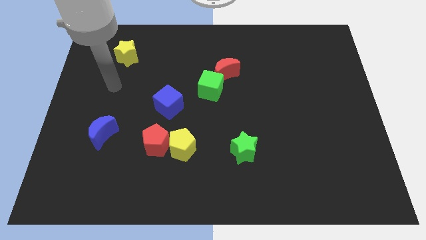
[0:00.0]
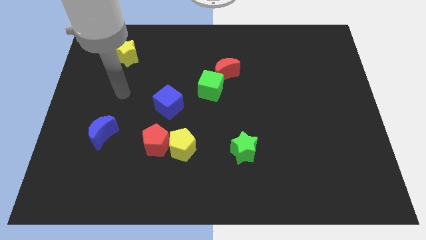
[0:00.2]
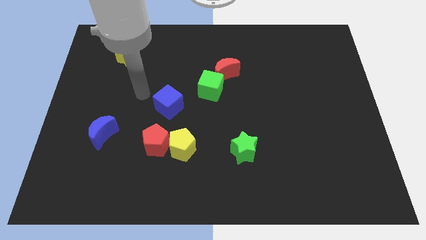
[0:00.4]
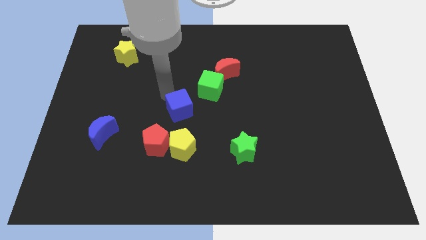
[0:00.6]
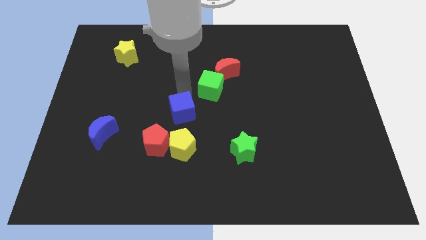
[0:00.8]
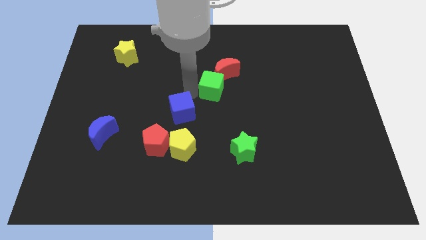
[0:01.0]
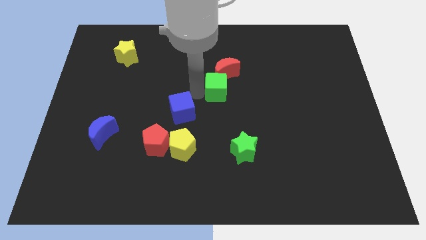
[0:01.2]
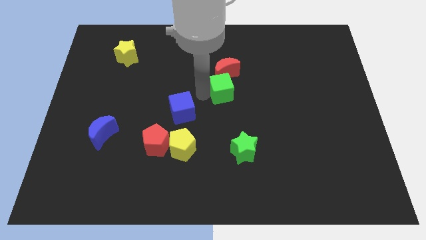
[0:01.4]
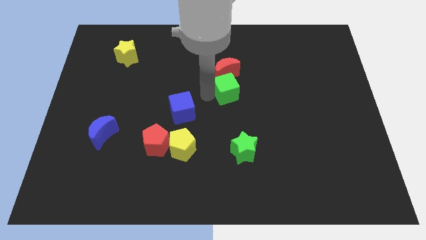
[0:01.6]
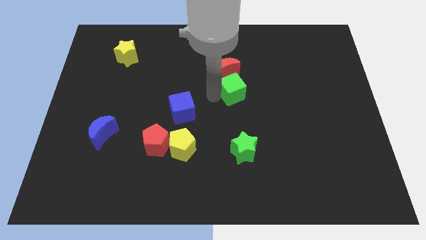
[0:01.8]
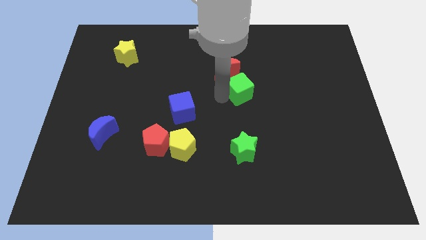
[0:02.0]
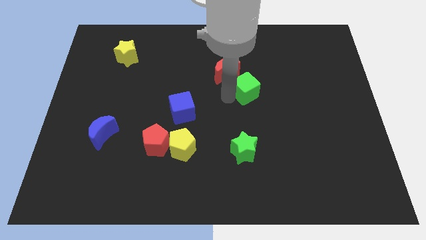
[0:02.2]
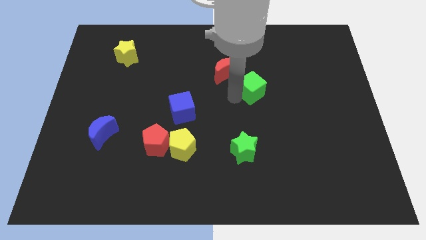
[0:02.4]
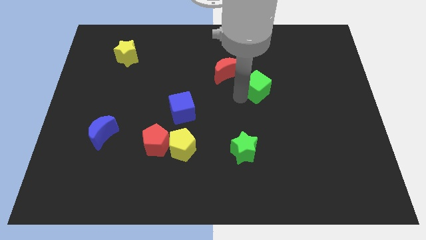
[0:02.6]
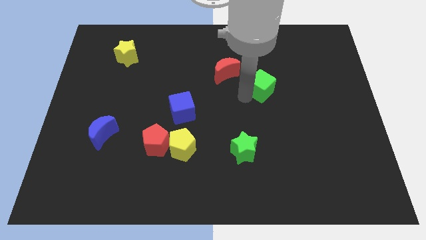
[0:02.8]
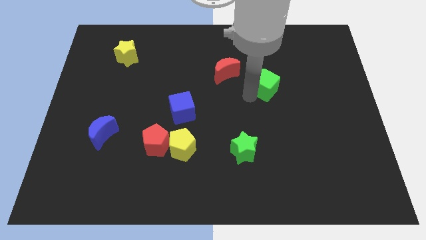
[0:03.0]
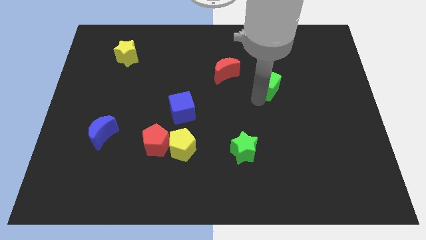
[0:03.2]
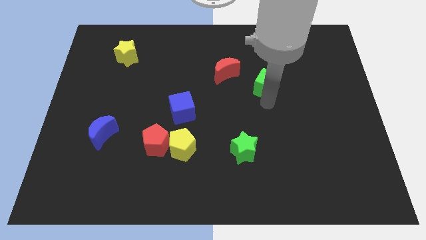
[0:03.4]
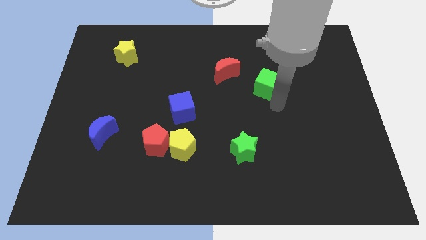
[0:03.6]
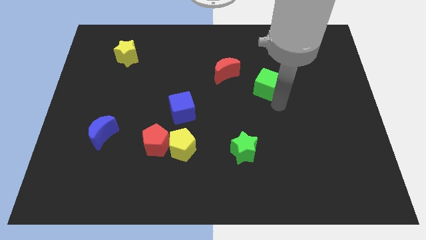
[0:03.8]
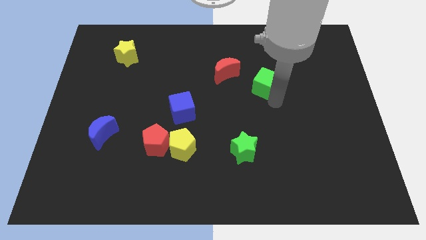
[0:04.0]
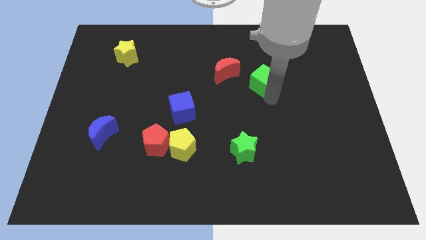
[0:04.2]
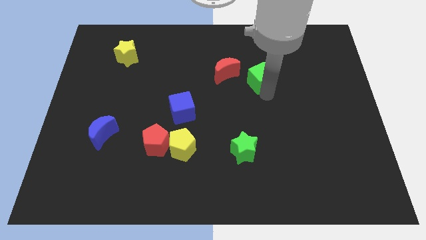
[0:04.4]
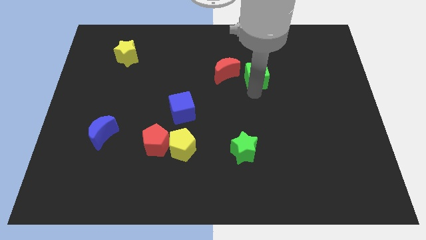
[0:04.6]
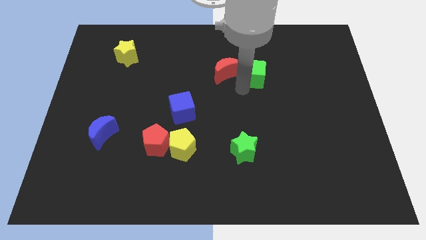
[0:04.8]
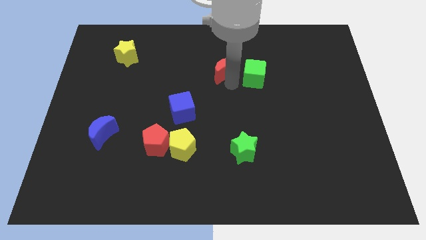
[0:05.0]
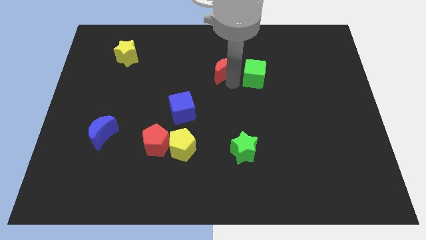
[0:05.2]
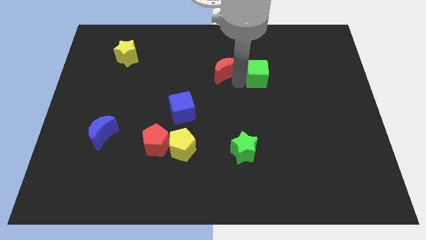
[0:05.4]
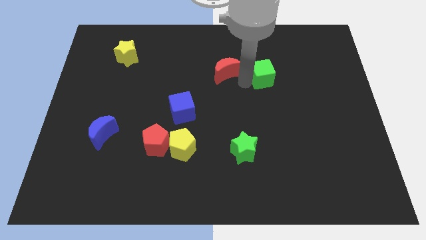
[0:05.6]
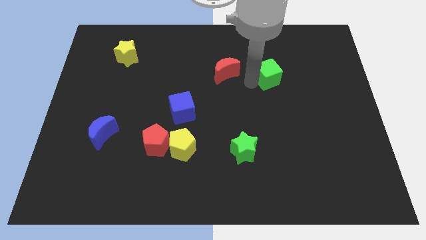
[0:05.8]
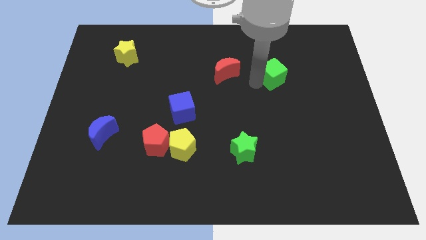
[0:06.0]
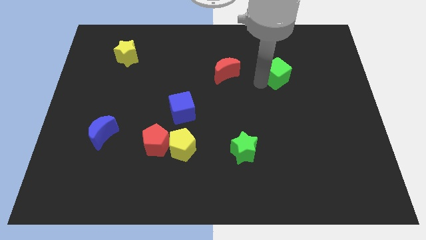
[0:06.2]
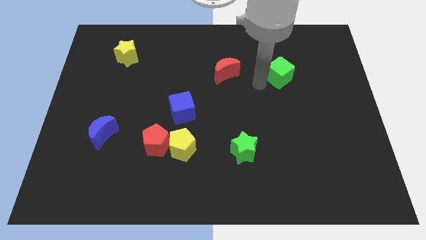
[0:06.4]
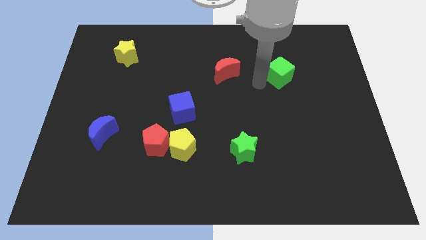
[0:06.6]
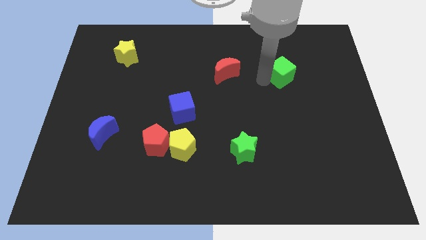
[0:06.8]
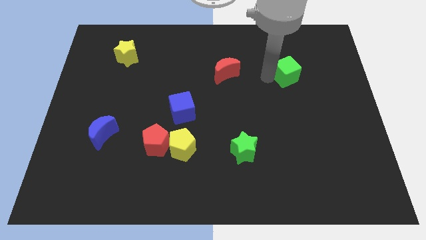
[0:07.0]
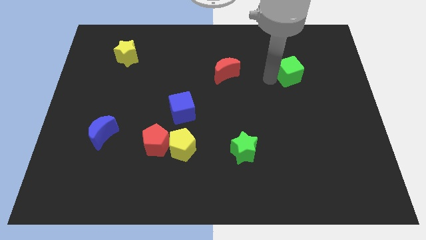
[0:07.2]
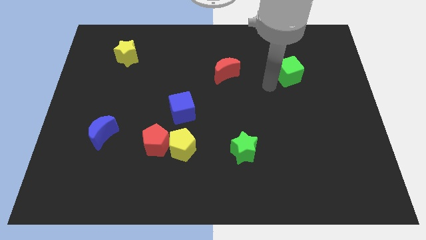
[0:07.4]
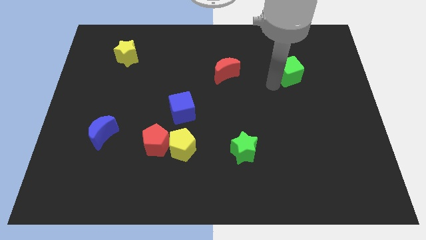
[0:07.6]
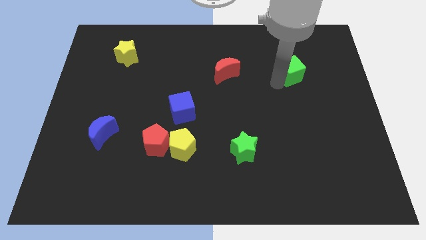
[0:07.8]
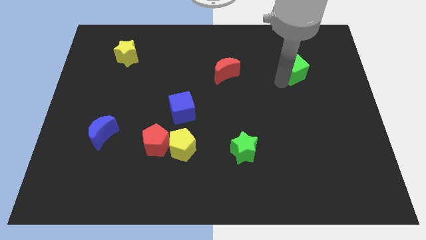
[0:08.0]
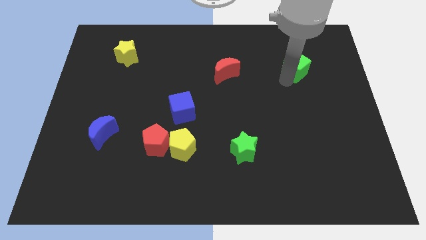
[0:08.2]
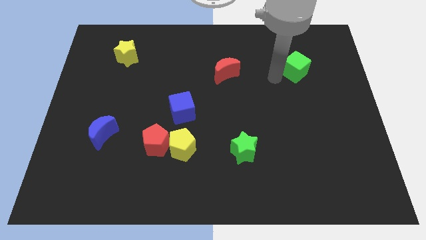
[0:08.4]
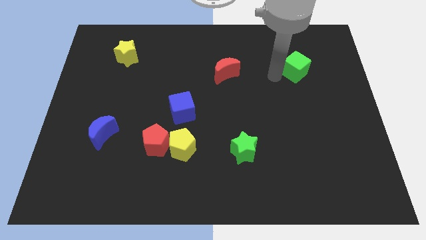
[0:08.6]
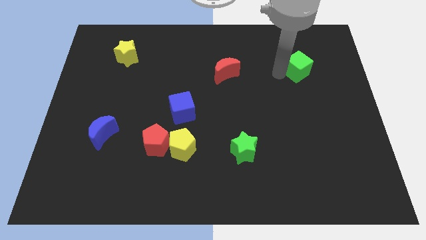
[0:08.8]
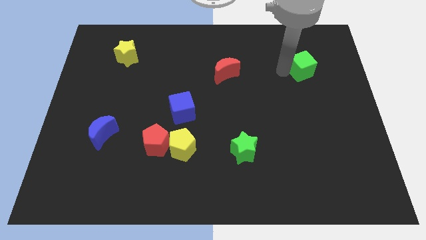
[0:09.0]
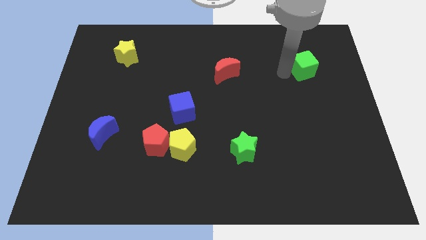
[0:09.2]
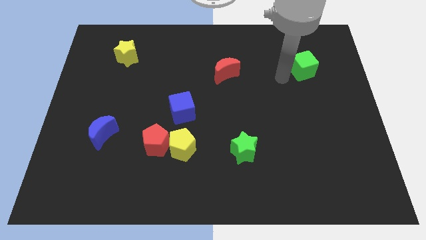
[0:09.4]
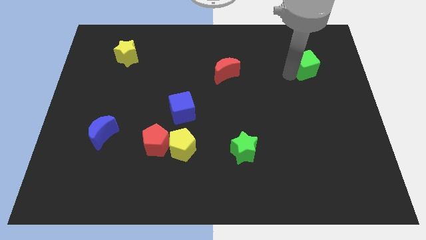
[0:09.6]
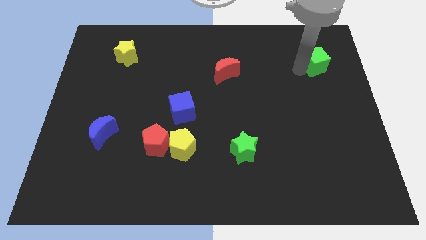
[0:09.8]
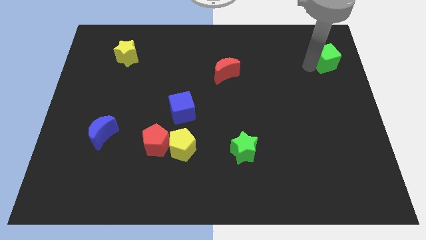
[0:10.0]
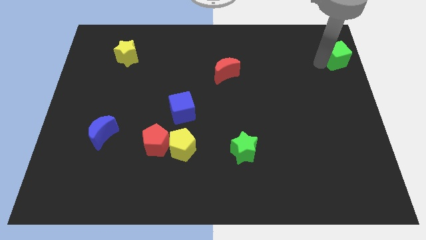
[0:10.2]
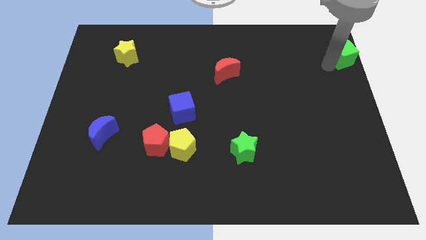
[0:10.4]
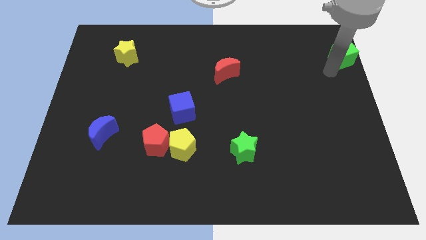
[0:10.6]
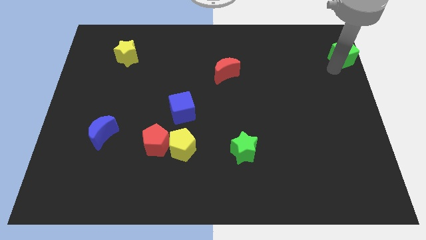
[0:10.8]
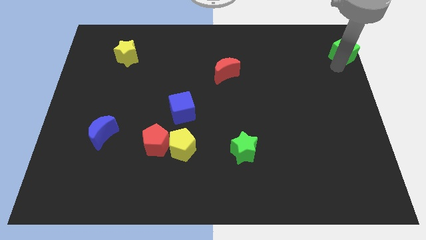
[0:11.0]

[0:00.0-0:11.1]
slide the green cube to the upper right corner
